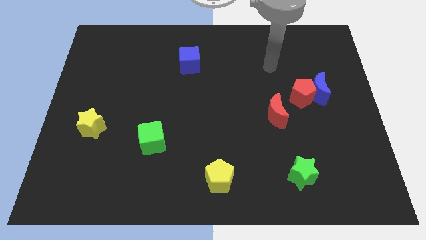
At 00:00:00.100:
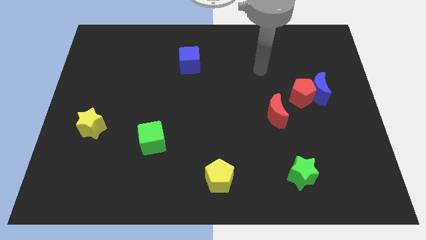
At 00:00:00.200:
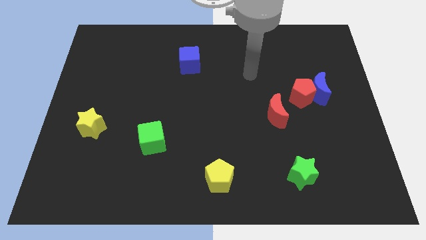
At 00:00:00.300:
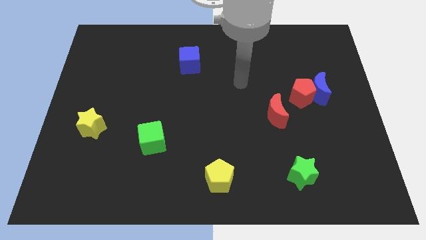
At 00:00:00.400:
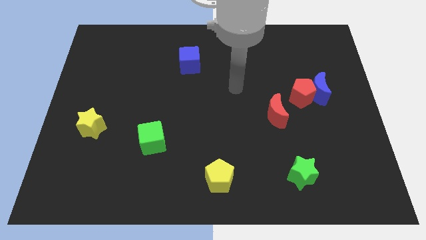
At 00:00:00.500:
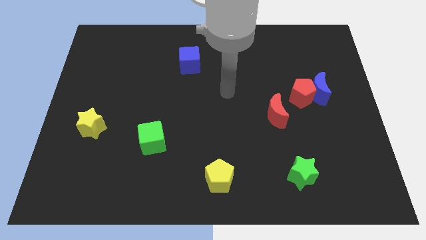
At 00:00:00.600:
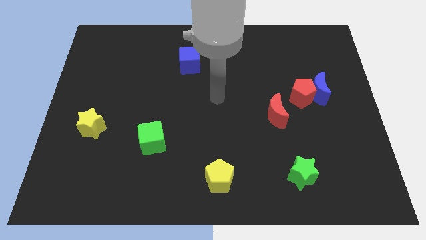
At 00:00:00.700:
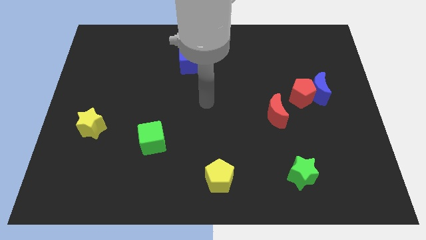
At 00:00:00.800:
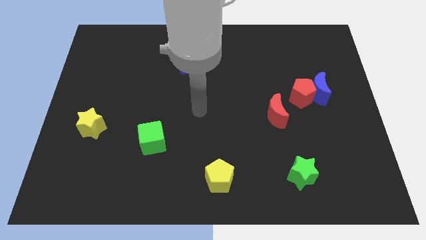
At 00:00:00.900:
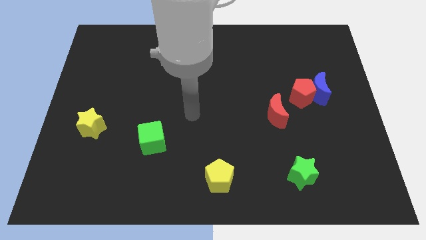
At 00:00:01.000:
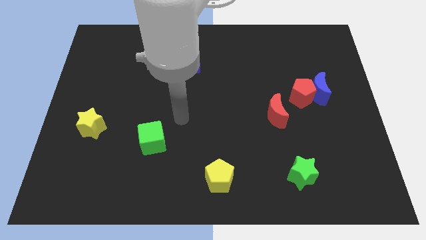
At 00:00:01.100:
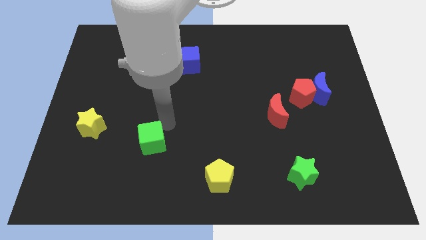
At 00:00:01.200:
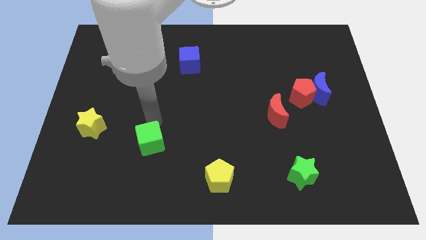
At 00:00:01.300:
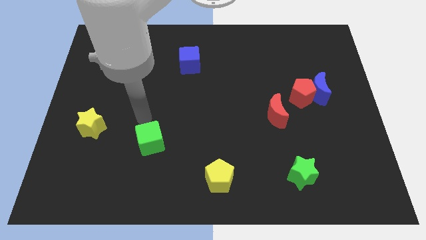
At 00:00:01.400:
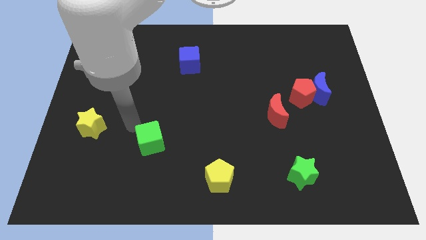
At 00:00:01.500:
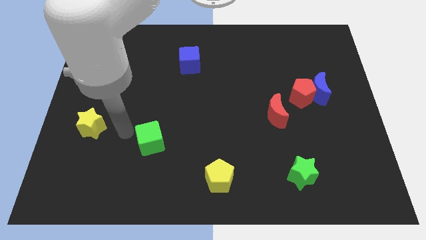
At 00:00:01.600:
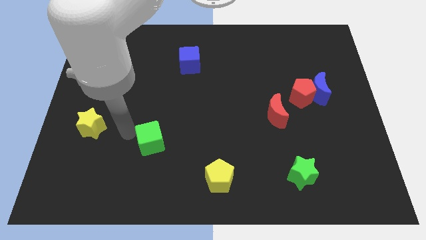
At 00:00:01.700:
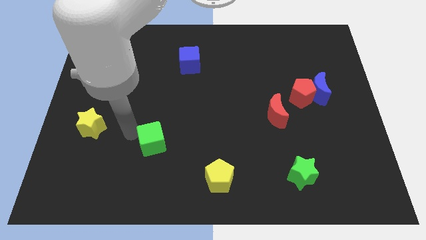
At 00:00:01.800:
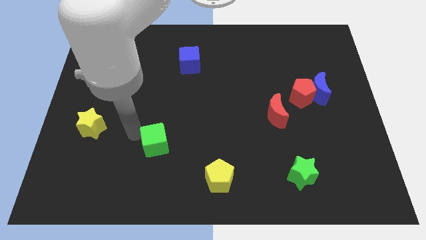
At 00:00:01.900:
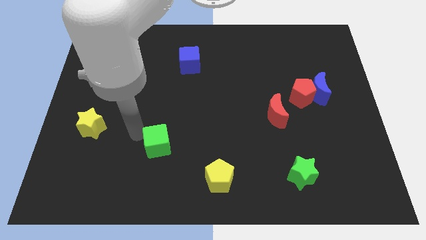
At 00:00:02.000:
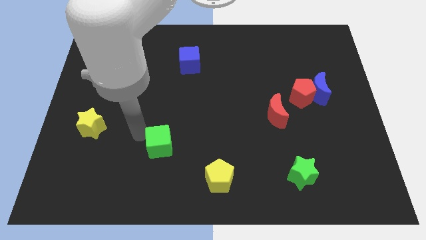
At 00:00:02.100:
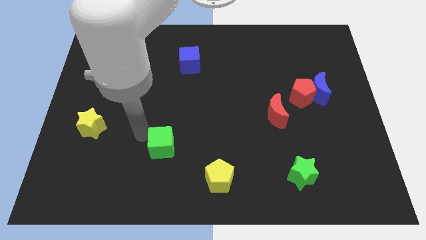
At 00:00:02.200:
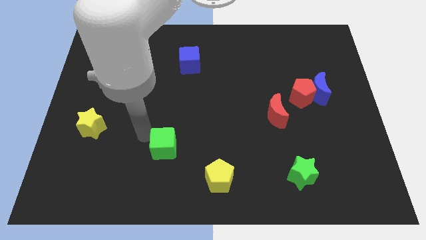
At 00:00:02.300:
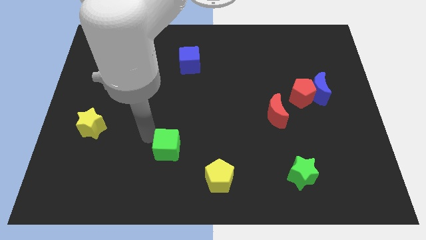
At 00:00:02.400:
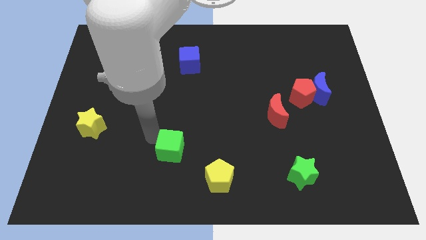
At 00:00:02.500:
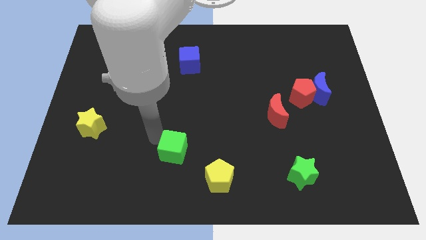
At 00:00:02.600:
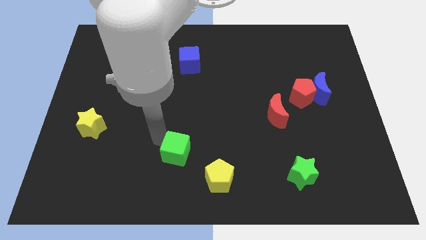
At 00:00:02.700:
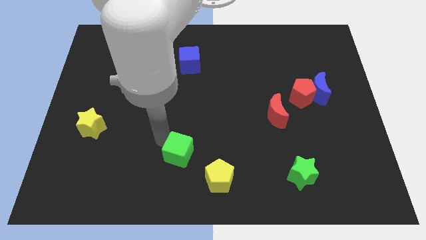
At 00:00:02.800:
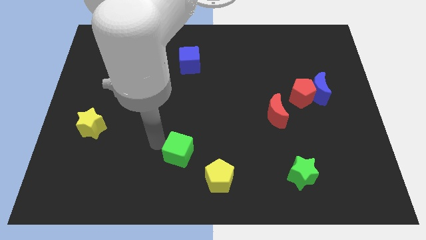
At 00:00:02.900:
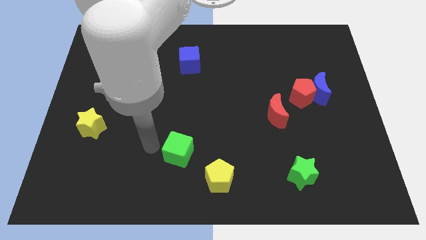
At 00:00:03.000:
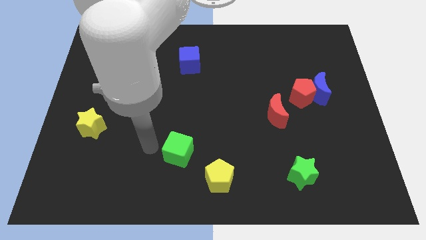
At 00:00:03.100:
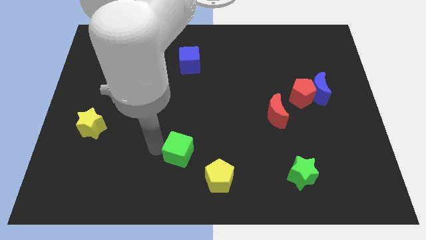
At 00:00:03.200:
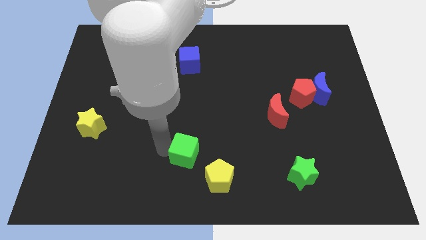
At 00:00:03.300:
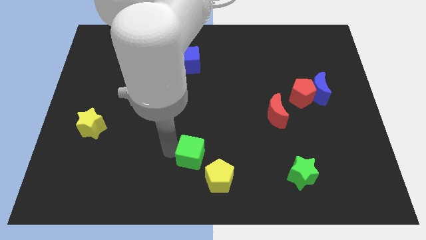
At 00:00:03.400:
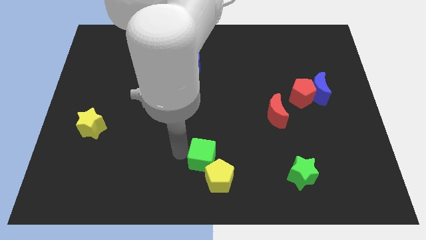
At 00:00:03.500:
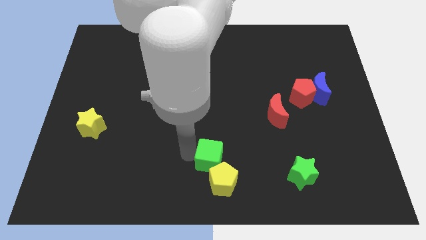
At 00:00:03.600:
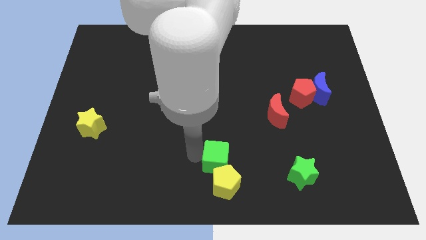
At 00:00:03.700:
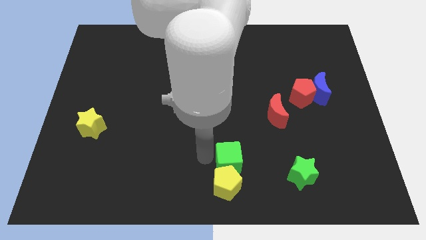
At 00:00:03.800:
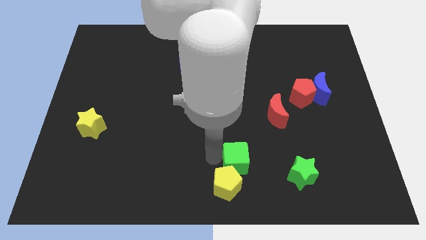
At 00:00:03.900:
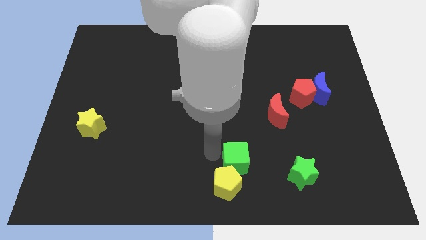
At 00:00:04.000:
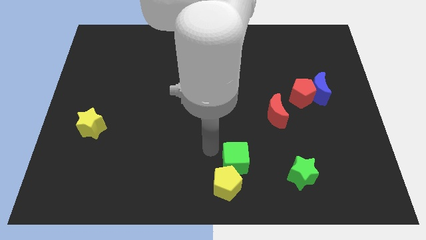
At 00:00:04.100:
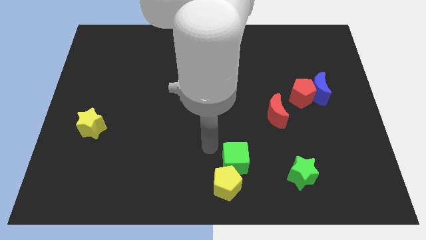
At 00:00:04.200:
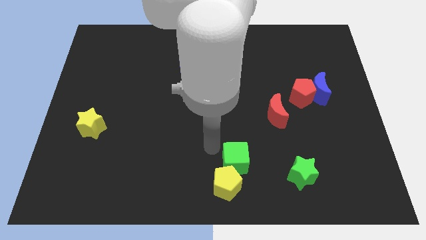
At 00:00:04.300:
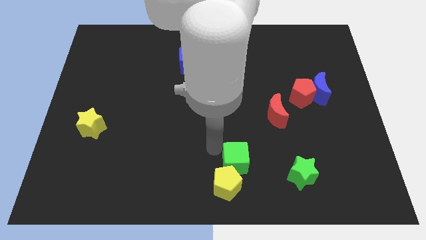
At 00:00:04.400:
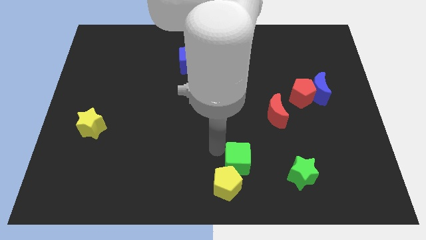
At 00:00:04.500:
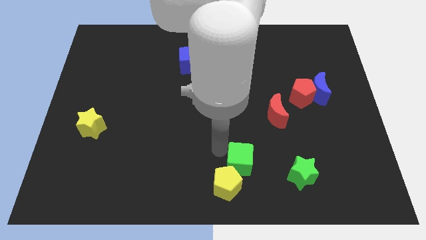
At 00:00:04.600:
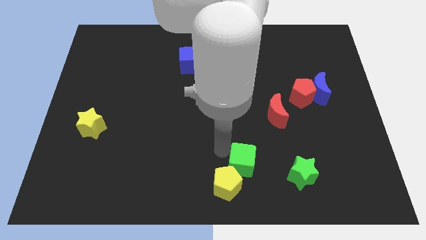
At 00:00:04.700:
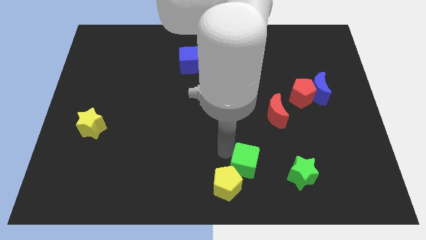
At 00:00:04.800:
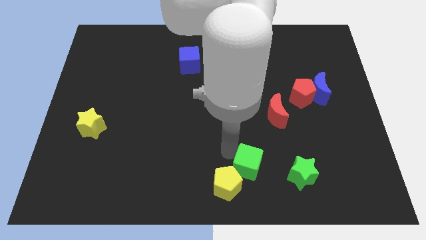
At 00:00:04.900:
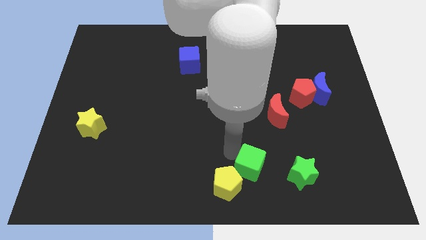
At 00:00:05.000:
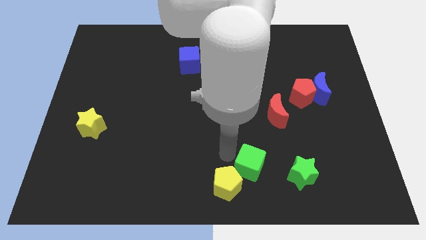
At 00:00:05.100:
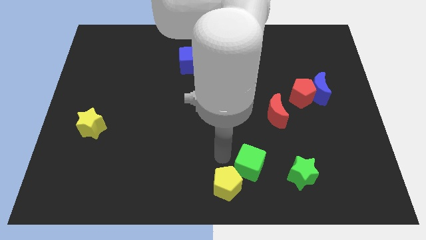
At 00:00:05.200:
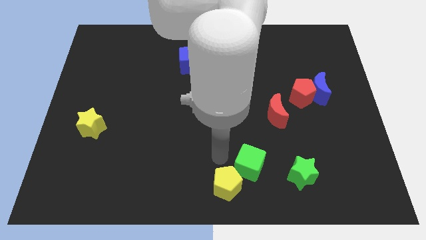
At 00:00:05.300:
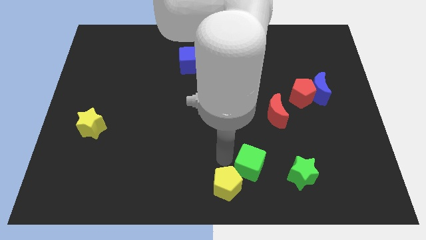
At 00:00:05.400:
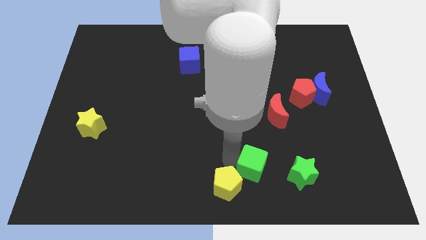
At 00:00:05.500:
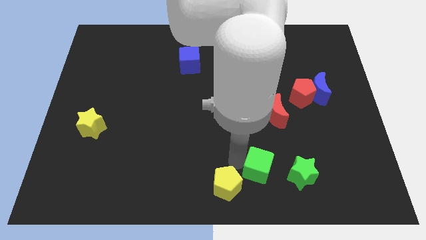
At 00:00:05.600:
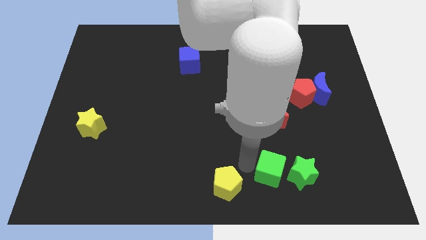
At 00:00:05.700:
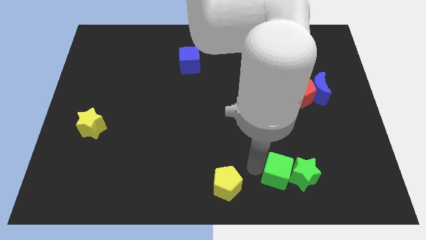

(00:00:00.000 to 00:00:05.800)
slide the green cube close to the green star

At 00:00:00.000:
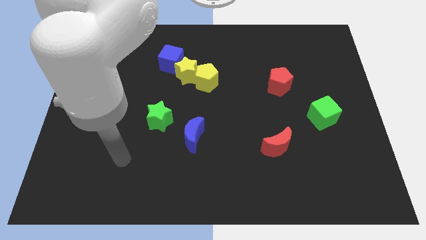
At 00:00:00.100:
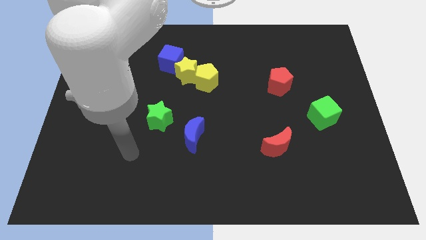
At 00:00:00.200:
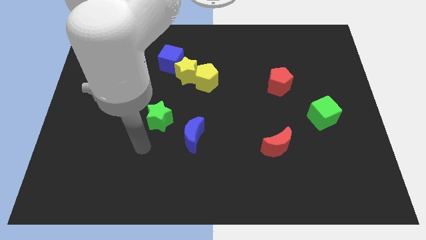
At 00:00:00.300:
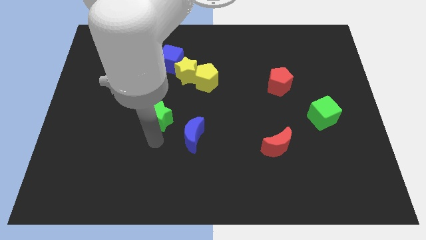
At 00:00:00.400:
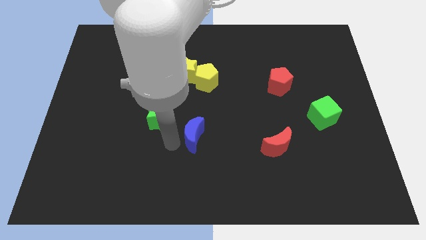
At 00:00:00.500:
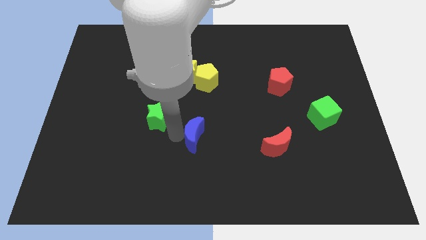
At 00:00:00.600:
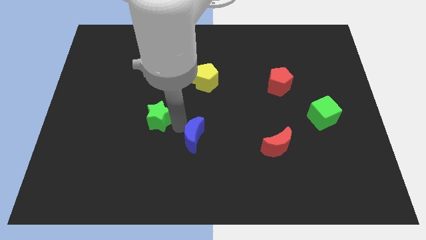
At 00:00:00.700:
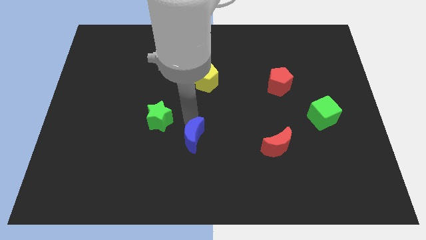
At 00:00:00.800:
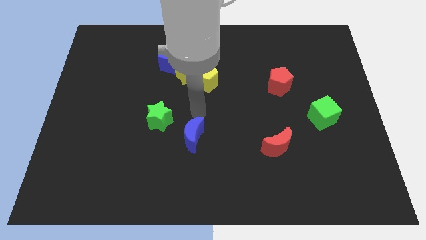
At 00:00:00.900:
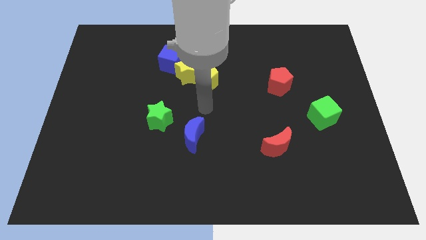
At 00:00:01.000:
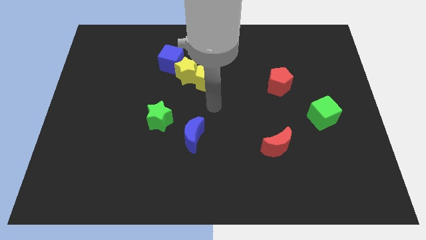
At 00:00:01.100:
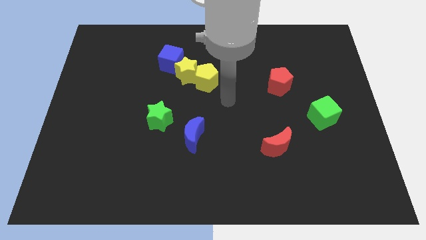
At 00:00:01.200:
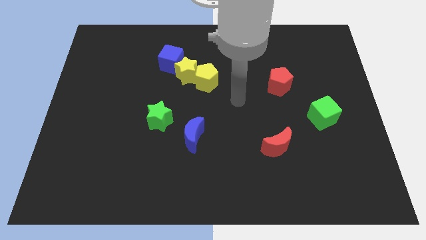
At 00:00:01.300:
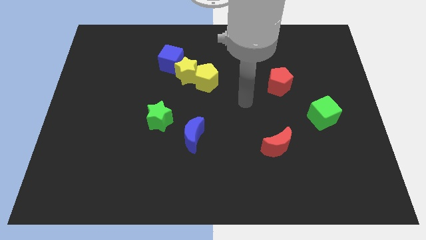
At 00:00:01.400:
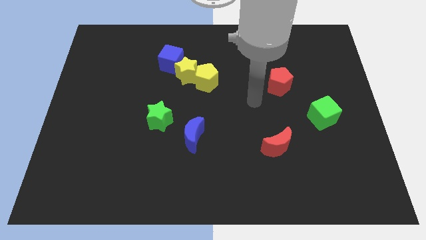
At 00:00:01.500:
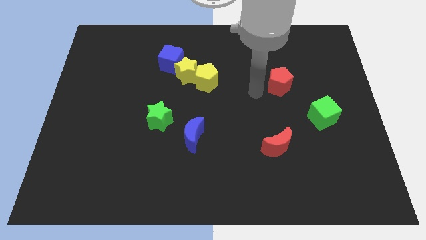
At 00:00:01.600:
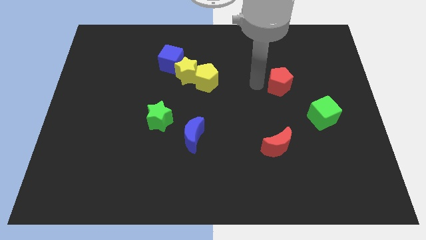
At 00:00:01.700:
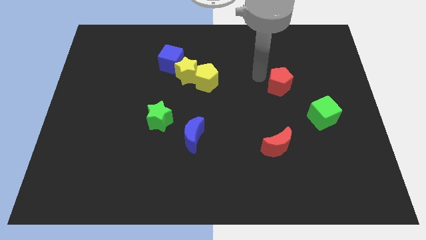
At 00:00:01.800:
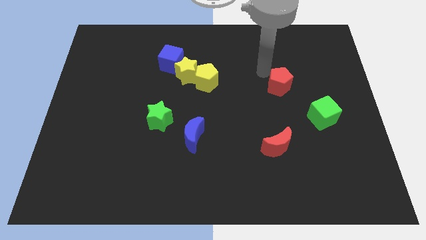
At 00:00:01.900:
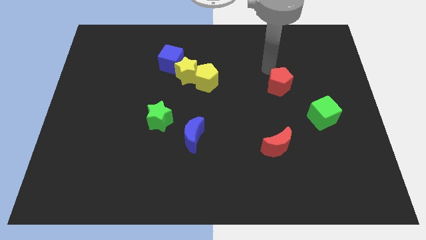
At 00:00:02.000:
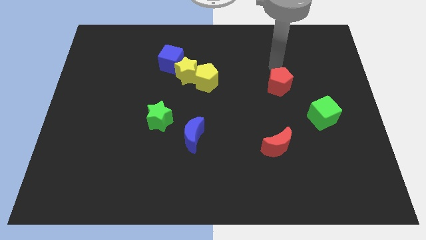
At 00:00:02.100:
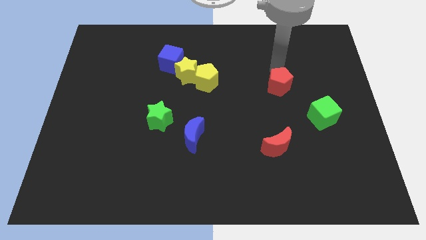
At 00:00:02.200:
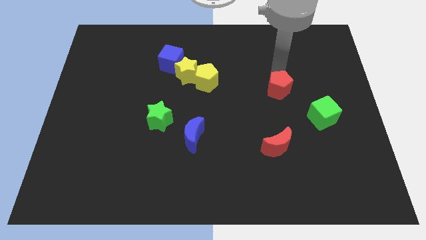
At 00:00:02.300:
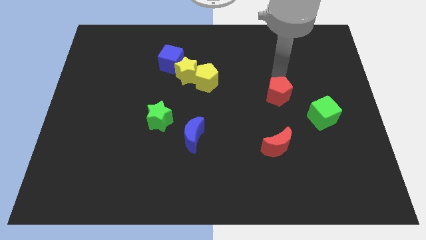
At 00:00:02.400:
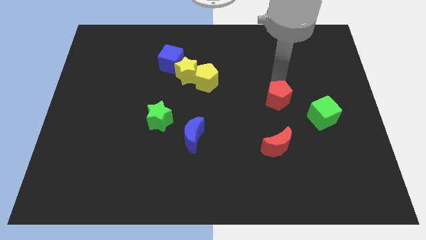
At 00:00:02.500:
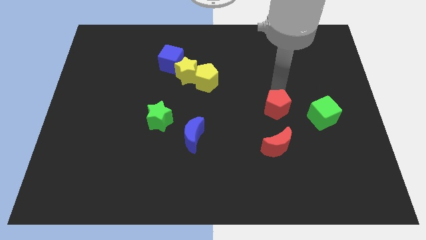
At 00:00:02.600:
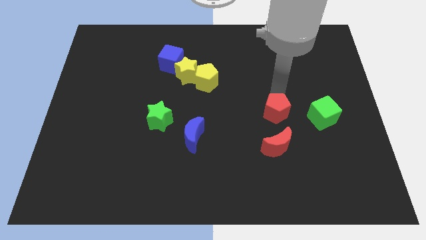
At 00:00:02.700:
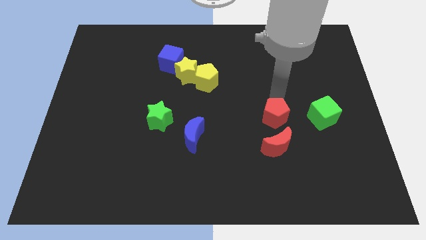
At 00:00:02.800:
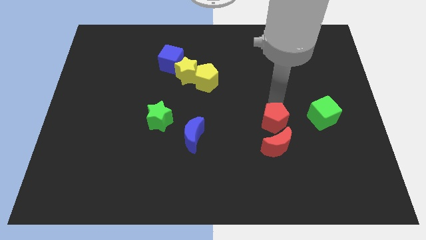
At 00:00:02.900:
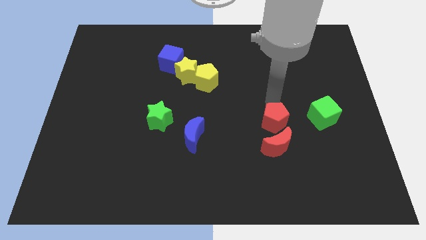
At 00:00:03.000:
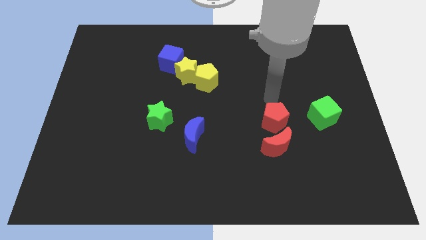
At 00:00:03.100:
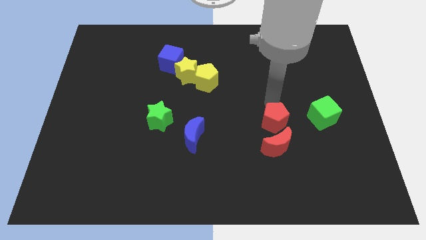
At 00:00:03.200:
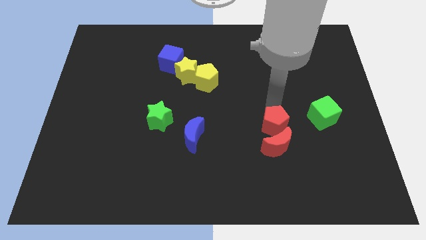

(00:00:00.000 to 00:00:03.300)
slide the red pentagon towards the red moon
